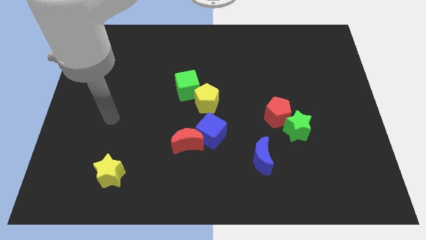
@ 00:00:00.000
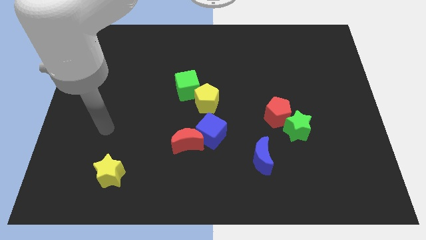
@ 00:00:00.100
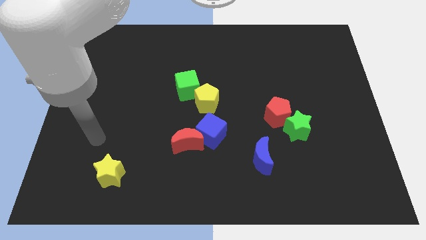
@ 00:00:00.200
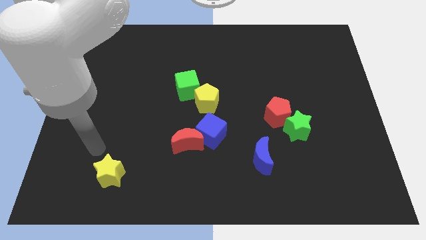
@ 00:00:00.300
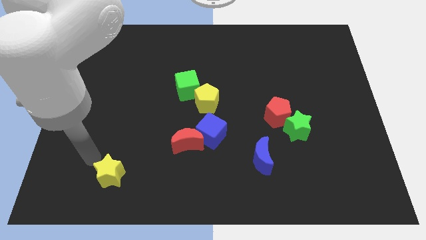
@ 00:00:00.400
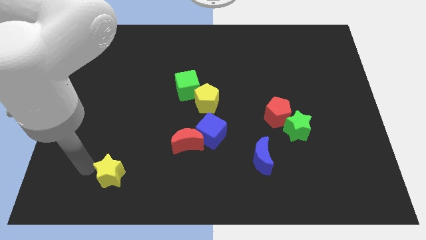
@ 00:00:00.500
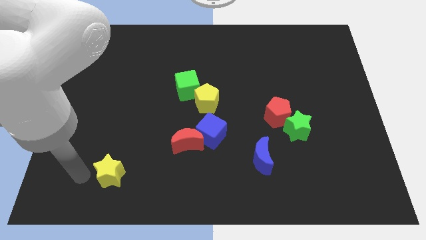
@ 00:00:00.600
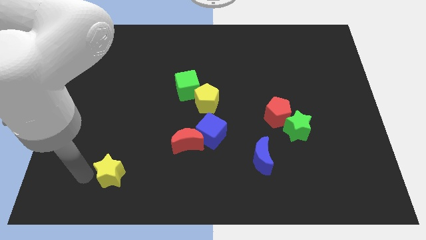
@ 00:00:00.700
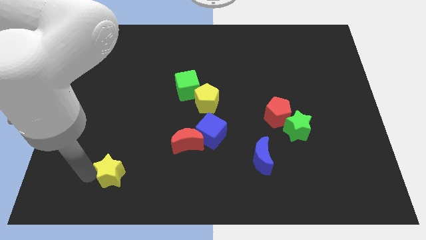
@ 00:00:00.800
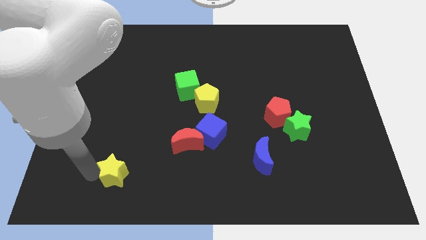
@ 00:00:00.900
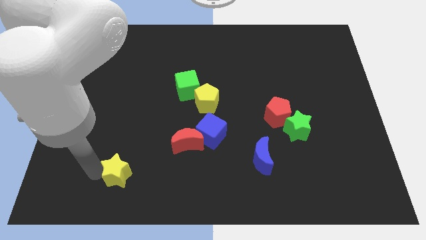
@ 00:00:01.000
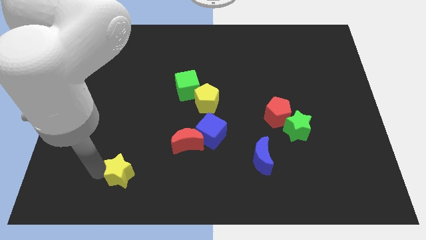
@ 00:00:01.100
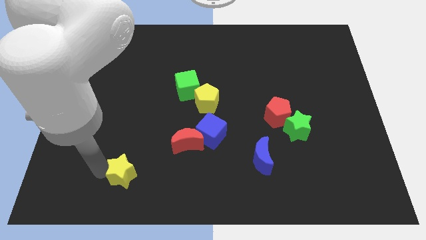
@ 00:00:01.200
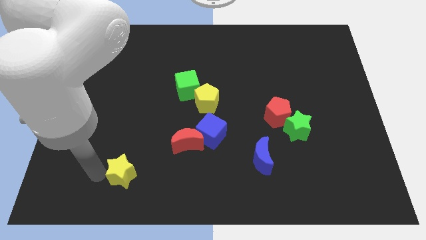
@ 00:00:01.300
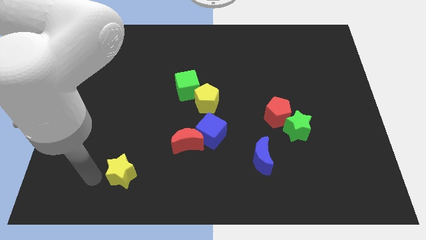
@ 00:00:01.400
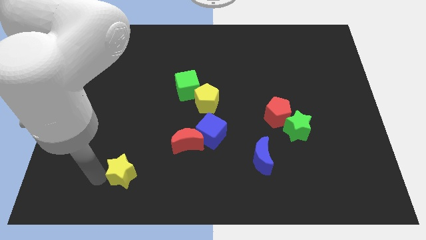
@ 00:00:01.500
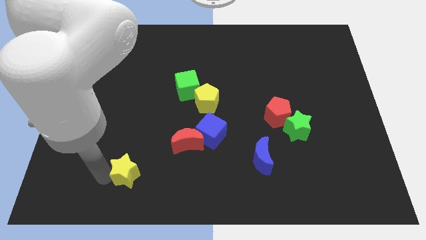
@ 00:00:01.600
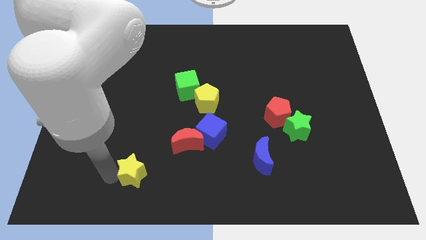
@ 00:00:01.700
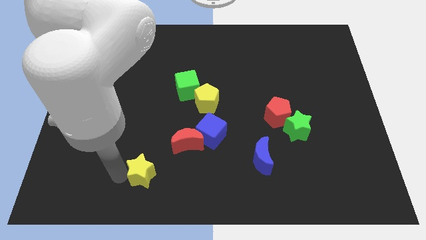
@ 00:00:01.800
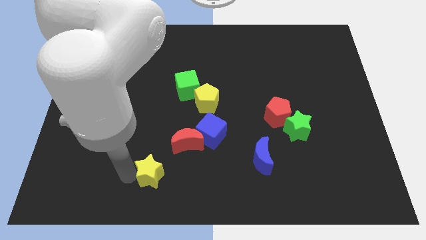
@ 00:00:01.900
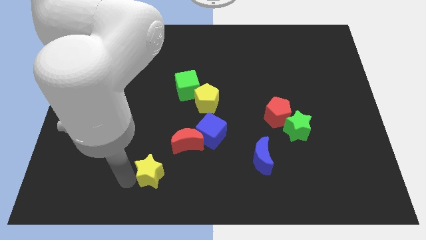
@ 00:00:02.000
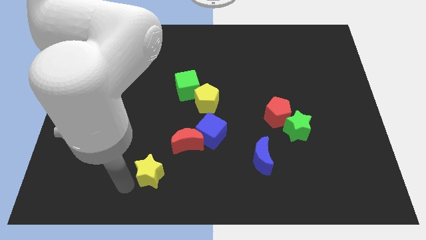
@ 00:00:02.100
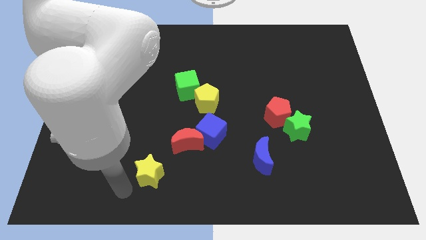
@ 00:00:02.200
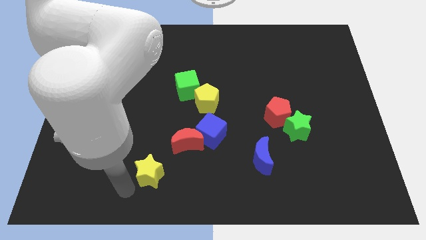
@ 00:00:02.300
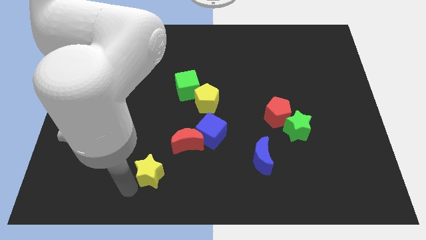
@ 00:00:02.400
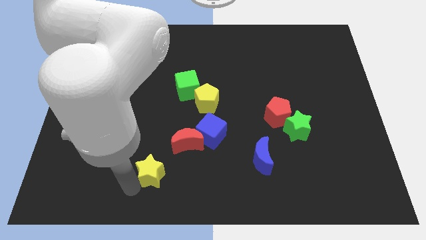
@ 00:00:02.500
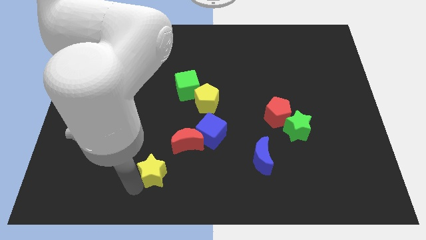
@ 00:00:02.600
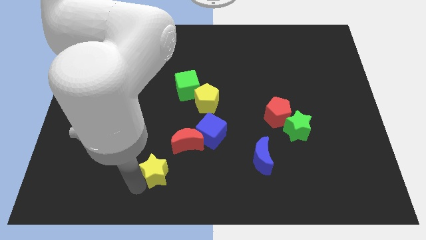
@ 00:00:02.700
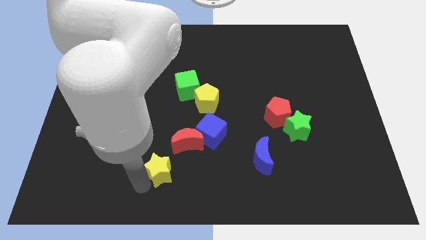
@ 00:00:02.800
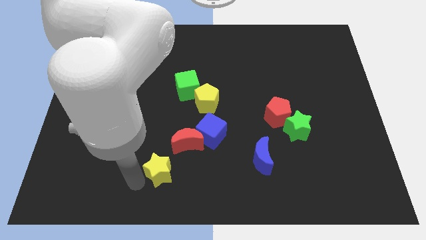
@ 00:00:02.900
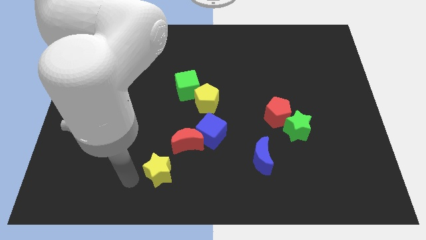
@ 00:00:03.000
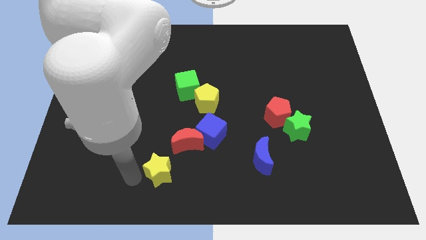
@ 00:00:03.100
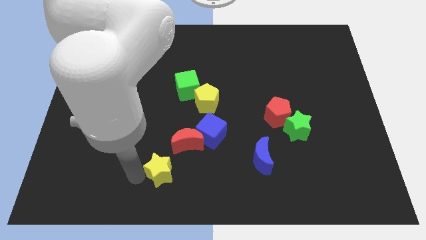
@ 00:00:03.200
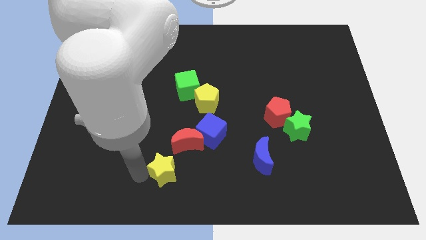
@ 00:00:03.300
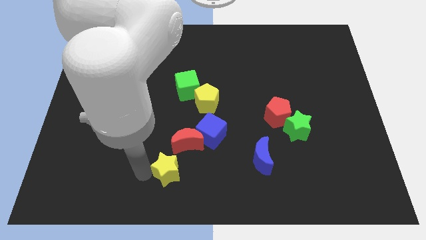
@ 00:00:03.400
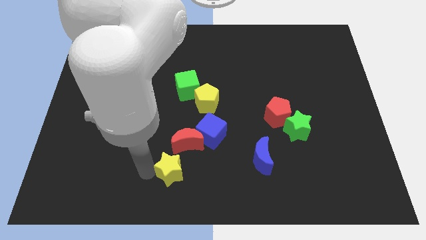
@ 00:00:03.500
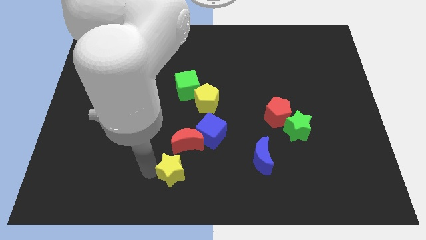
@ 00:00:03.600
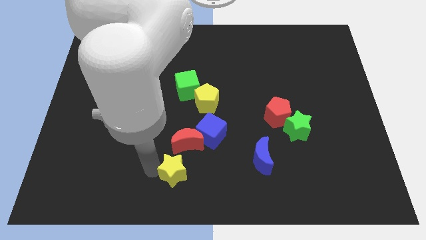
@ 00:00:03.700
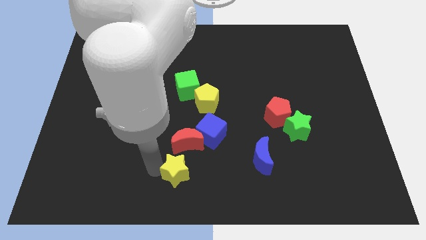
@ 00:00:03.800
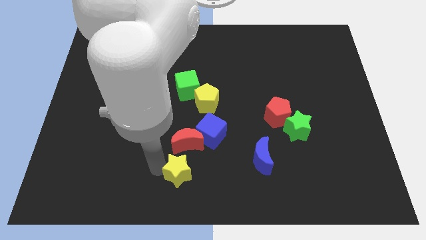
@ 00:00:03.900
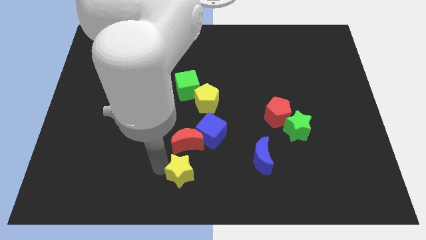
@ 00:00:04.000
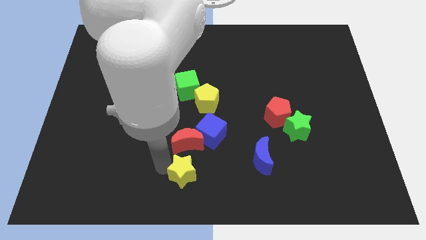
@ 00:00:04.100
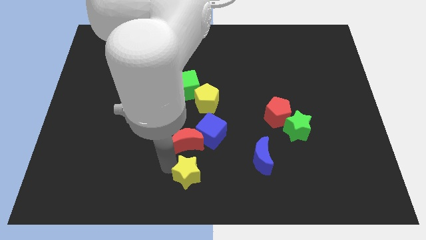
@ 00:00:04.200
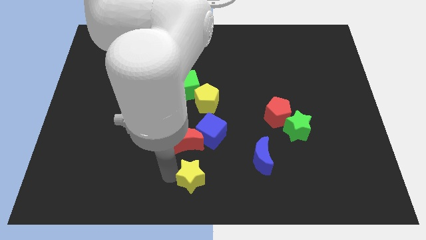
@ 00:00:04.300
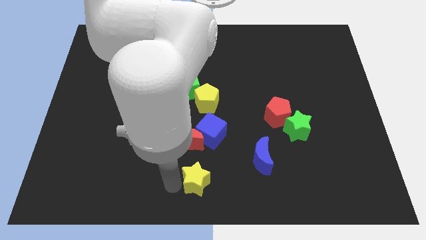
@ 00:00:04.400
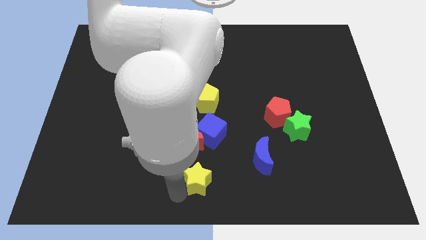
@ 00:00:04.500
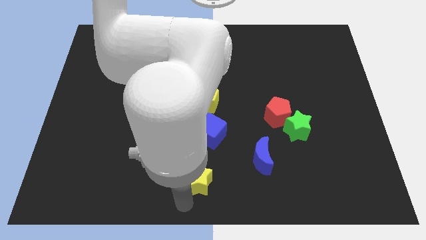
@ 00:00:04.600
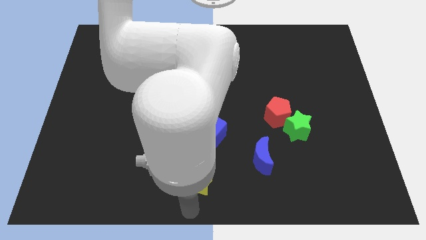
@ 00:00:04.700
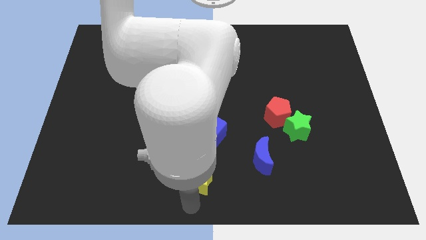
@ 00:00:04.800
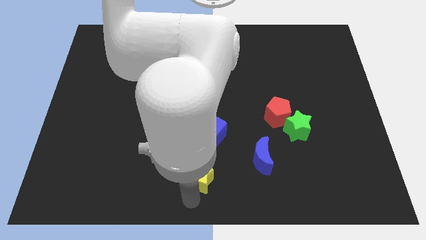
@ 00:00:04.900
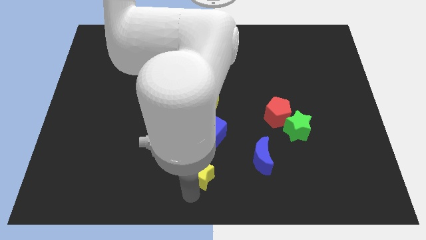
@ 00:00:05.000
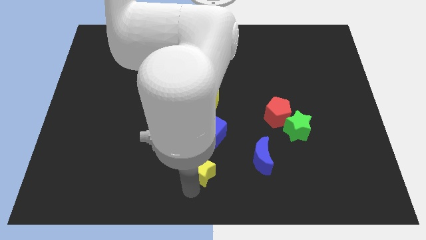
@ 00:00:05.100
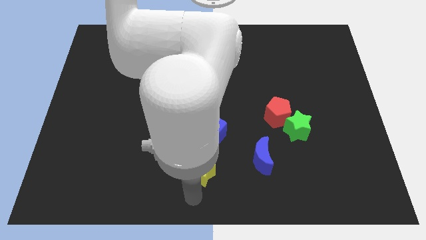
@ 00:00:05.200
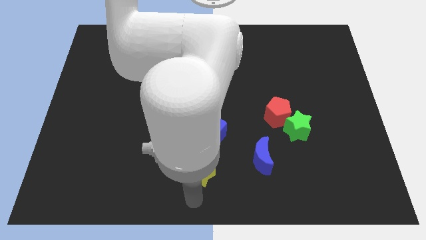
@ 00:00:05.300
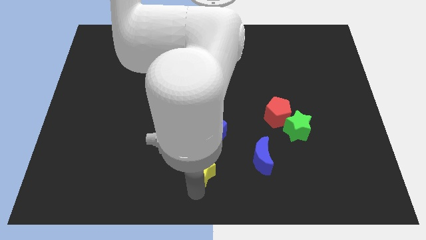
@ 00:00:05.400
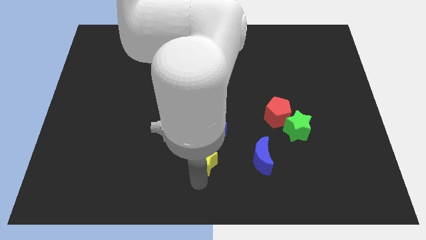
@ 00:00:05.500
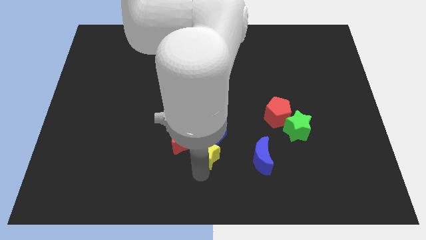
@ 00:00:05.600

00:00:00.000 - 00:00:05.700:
push the yellow star towards the blue cube

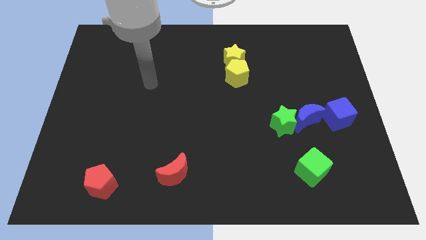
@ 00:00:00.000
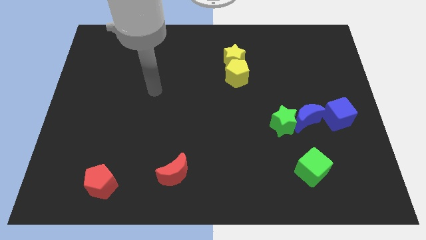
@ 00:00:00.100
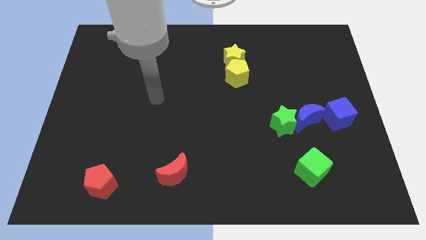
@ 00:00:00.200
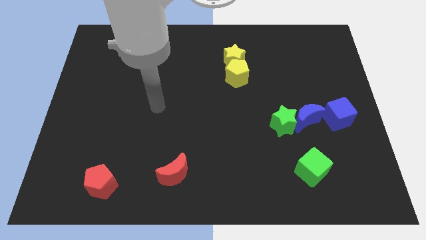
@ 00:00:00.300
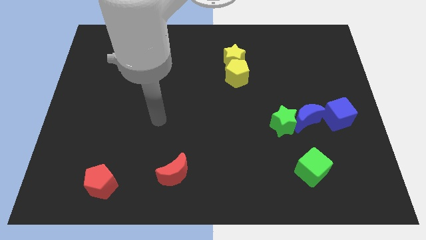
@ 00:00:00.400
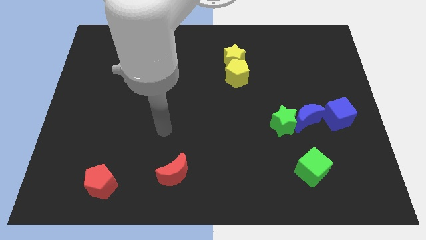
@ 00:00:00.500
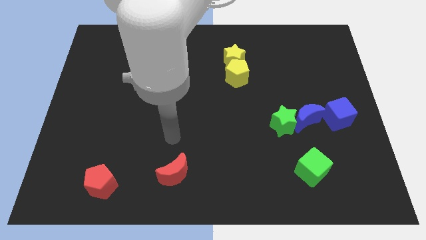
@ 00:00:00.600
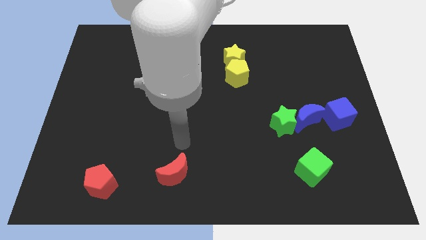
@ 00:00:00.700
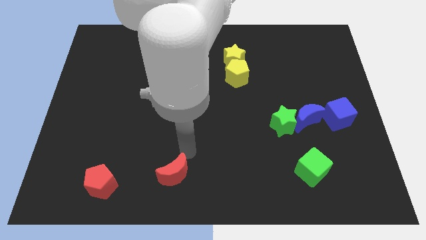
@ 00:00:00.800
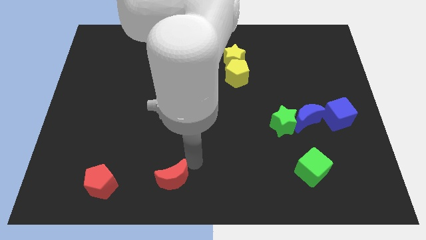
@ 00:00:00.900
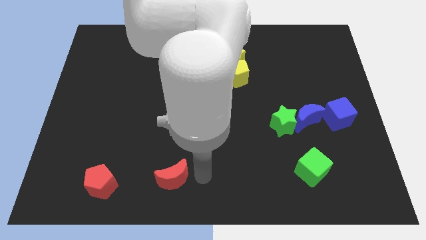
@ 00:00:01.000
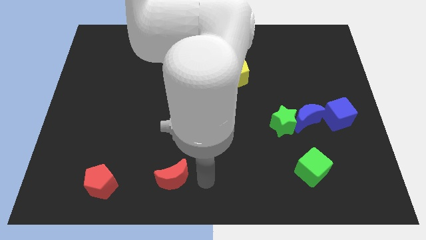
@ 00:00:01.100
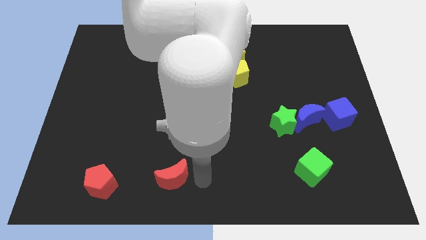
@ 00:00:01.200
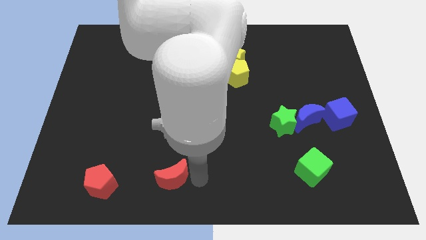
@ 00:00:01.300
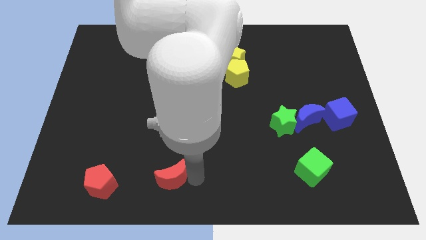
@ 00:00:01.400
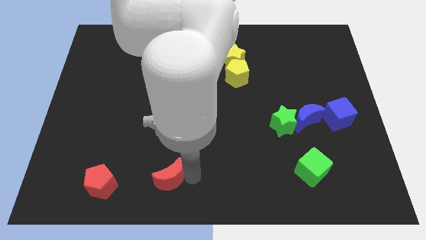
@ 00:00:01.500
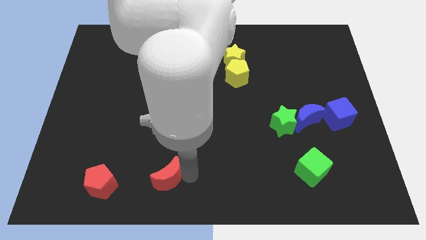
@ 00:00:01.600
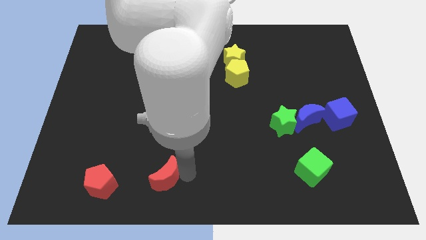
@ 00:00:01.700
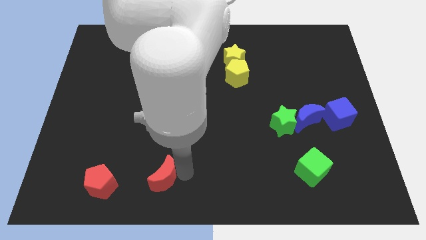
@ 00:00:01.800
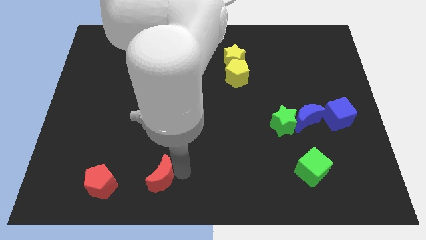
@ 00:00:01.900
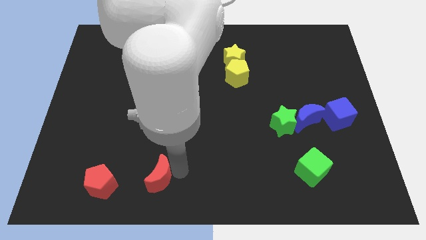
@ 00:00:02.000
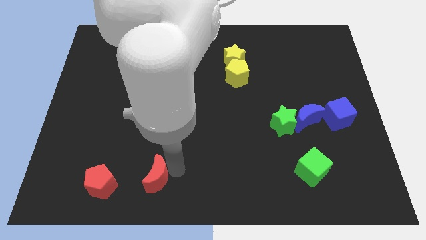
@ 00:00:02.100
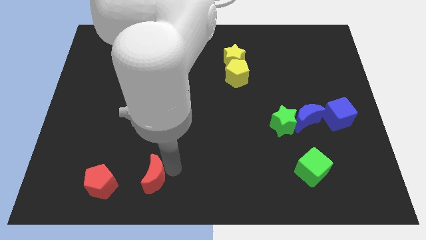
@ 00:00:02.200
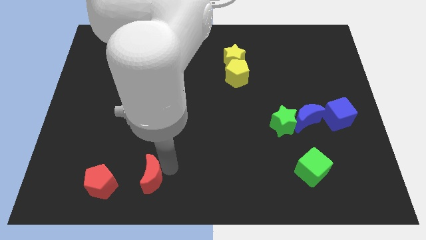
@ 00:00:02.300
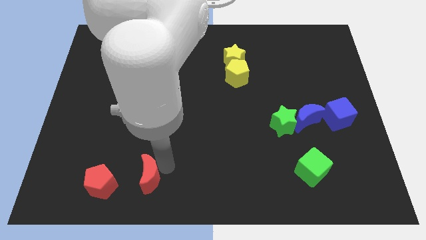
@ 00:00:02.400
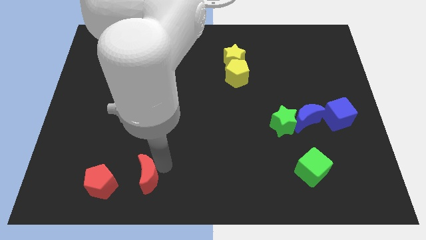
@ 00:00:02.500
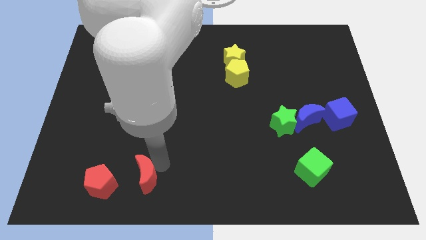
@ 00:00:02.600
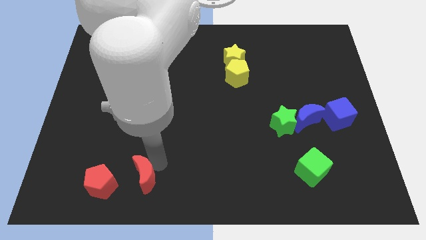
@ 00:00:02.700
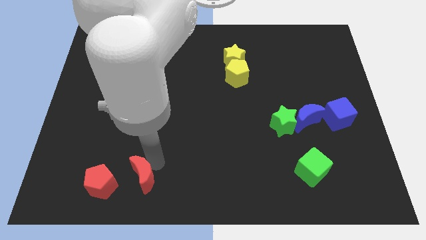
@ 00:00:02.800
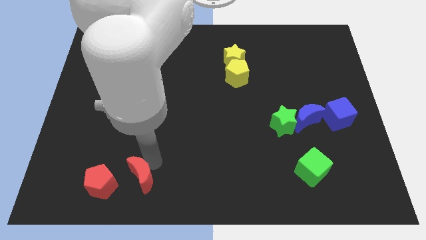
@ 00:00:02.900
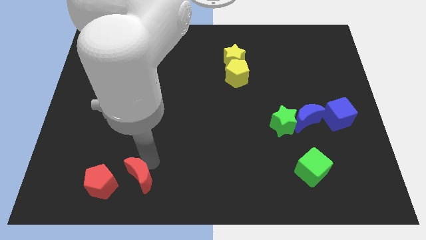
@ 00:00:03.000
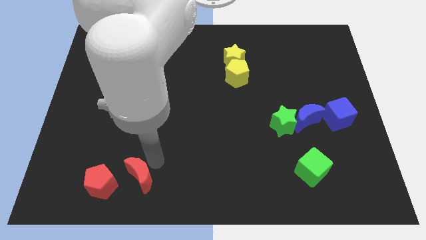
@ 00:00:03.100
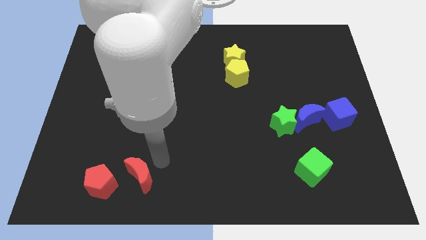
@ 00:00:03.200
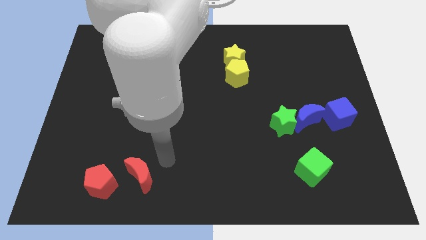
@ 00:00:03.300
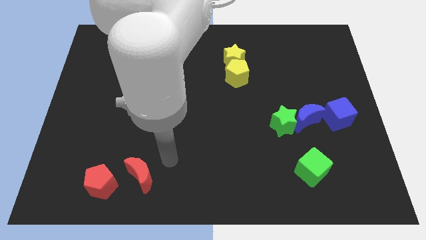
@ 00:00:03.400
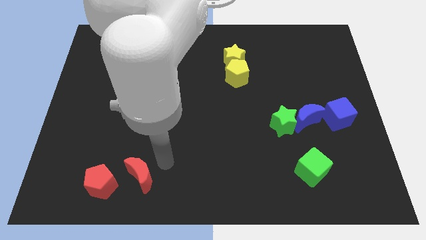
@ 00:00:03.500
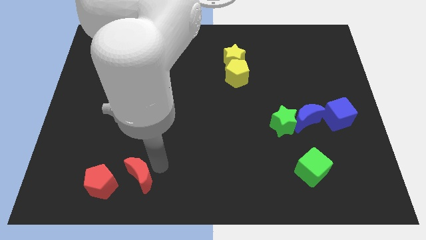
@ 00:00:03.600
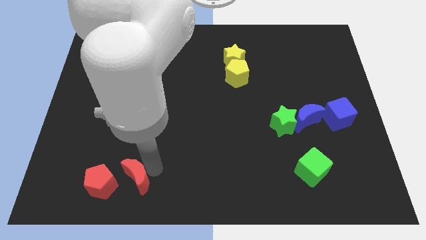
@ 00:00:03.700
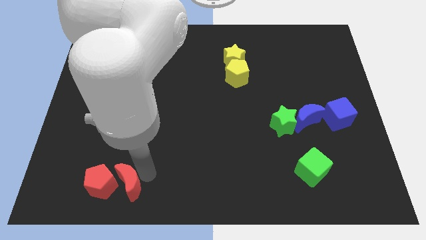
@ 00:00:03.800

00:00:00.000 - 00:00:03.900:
put the red moon close to the red pentagon
